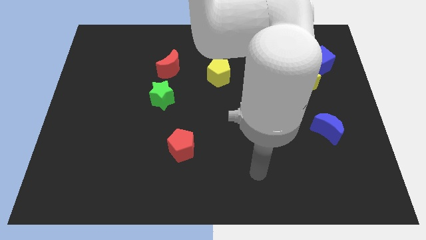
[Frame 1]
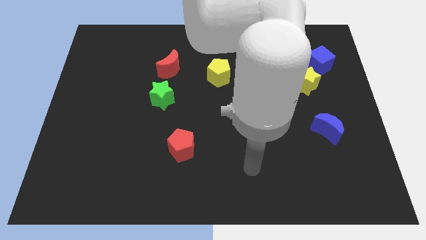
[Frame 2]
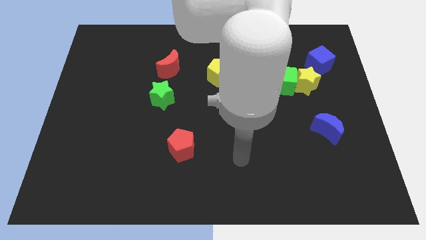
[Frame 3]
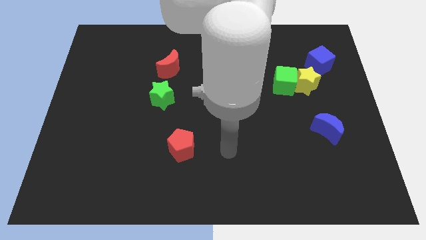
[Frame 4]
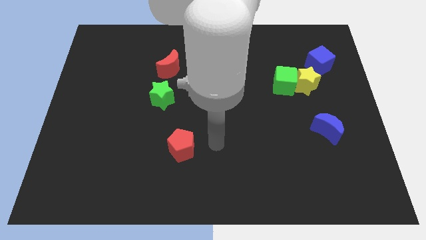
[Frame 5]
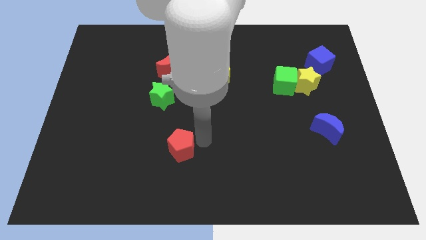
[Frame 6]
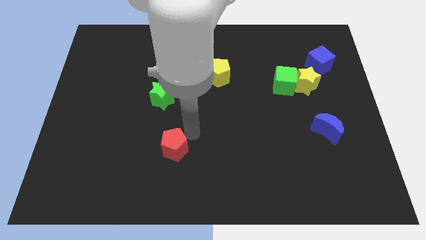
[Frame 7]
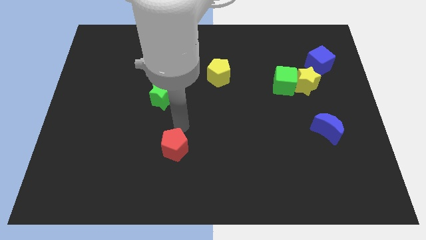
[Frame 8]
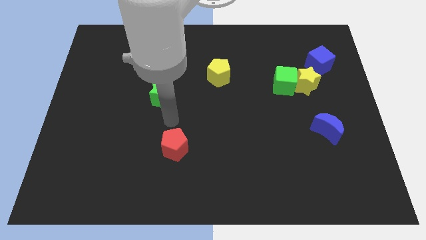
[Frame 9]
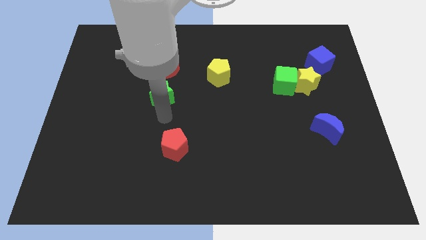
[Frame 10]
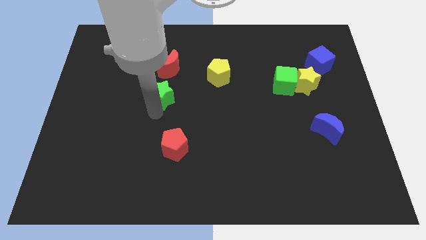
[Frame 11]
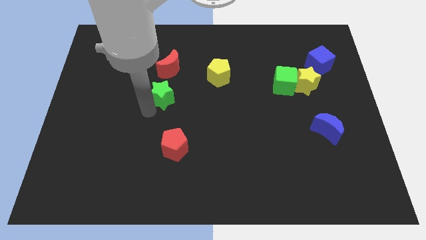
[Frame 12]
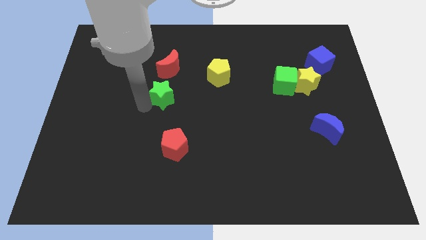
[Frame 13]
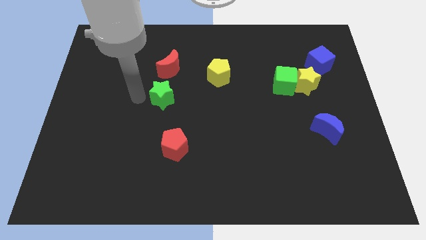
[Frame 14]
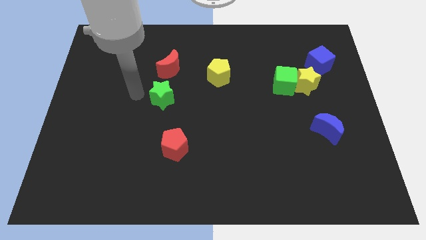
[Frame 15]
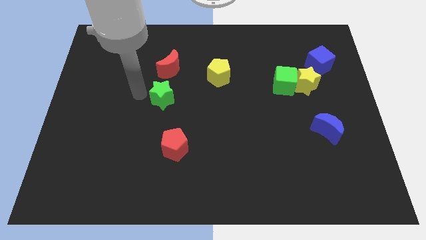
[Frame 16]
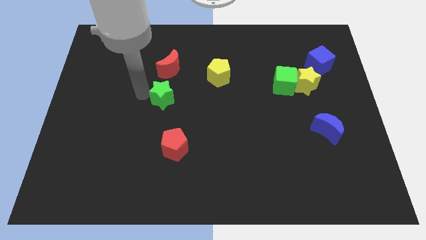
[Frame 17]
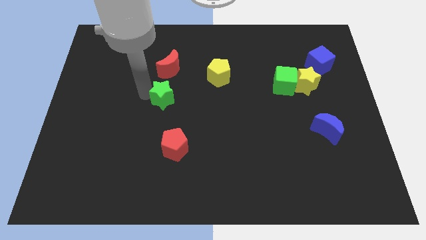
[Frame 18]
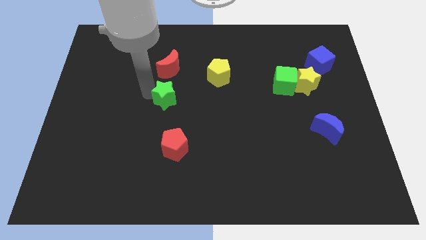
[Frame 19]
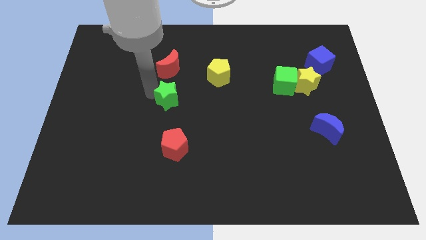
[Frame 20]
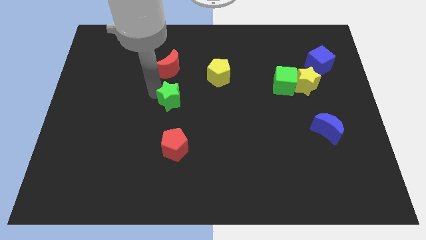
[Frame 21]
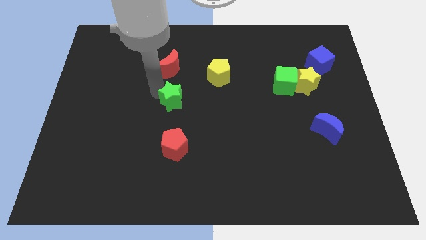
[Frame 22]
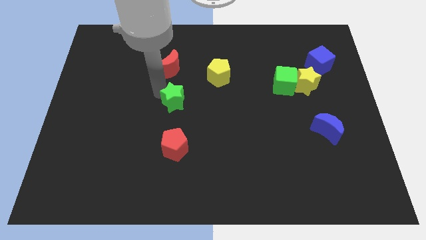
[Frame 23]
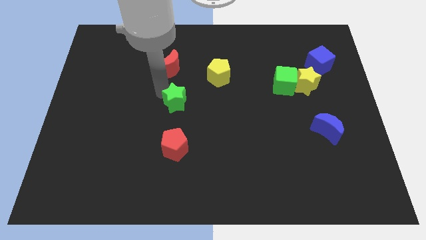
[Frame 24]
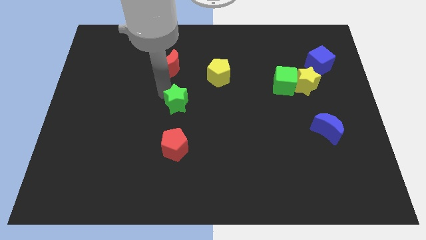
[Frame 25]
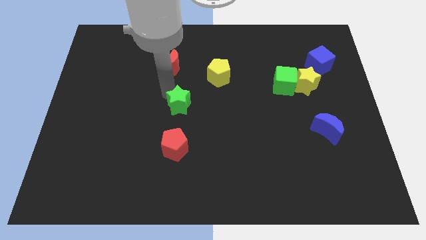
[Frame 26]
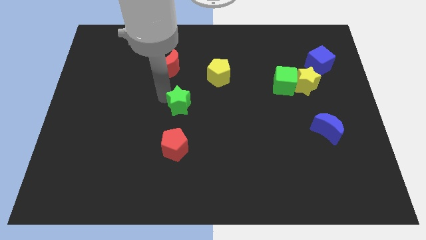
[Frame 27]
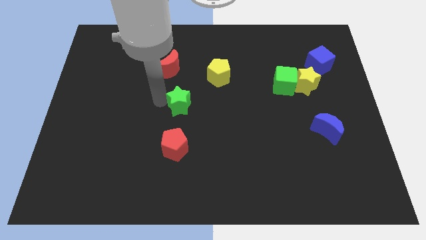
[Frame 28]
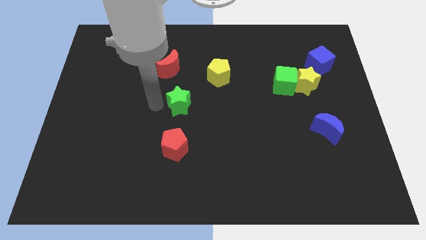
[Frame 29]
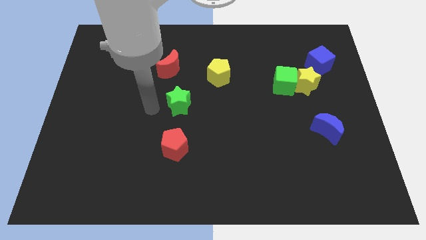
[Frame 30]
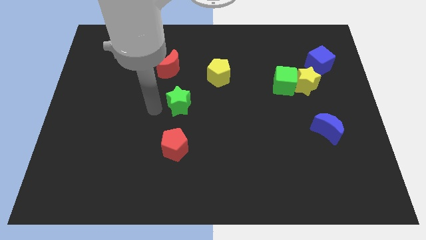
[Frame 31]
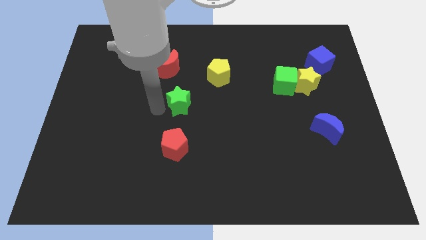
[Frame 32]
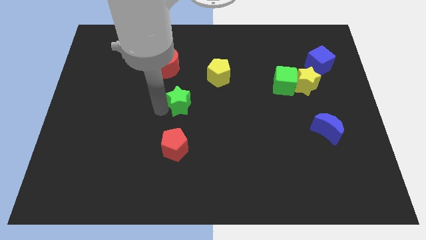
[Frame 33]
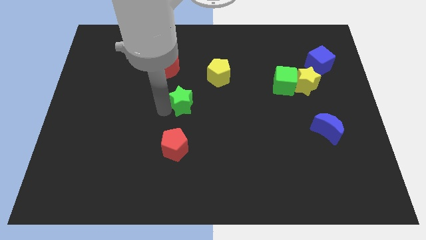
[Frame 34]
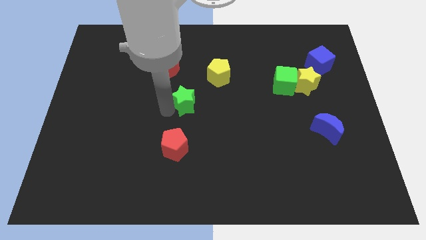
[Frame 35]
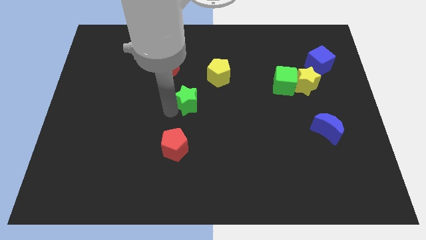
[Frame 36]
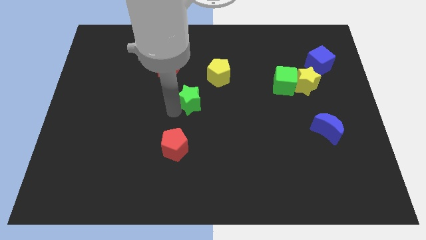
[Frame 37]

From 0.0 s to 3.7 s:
slightly move the green star to the right

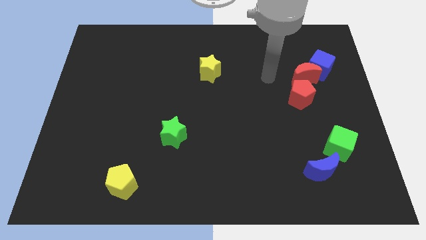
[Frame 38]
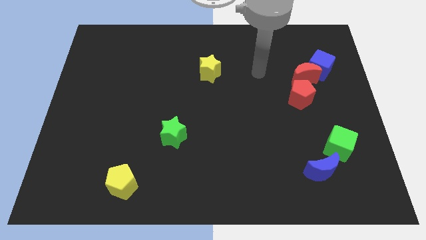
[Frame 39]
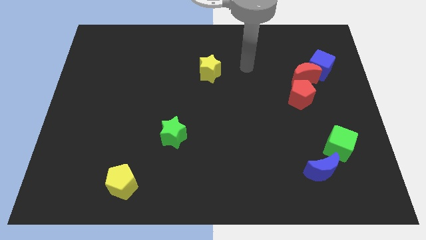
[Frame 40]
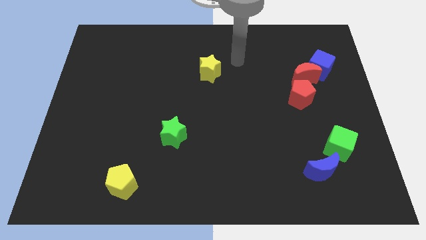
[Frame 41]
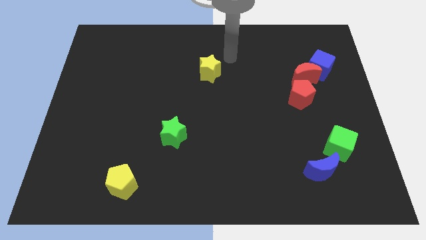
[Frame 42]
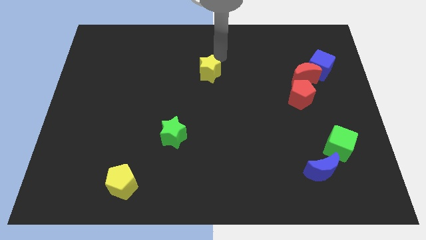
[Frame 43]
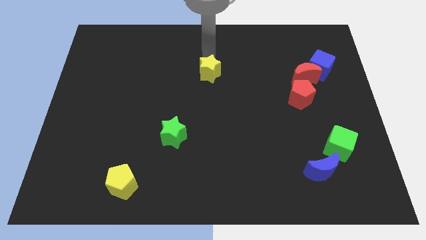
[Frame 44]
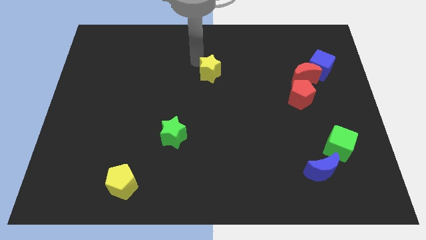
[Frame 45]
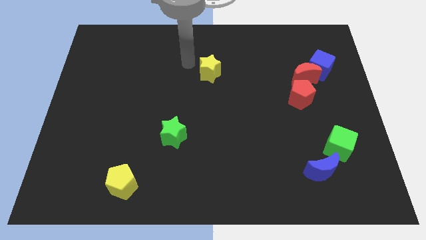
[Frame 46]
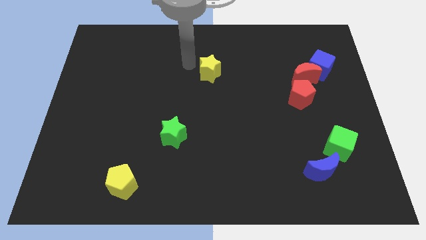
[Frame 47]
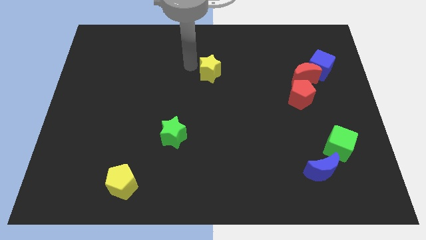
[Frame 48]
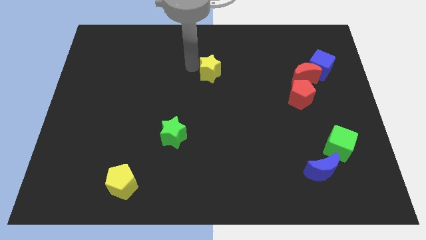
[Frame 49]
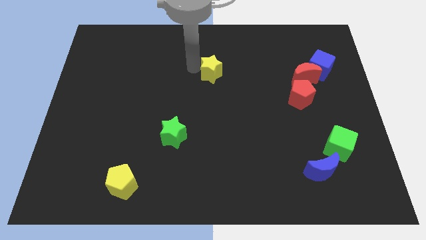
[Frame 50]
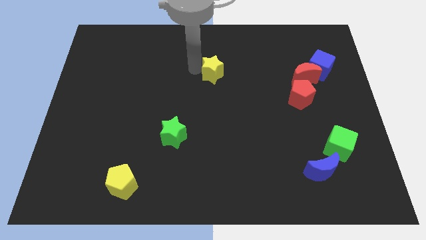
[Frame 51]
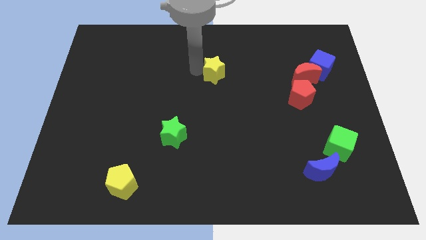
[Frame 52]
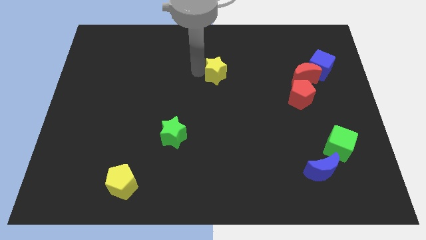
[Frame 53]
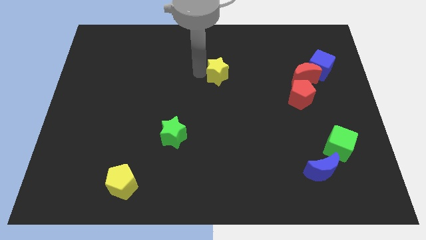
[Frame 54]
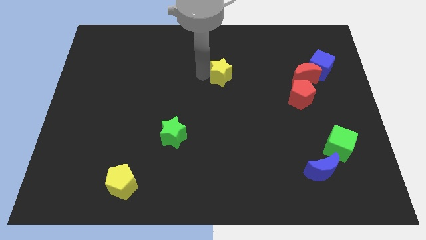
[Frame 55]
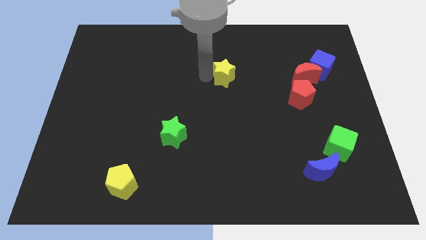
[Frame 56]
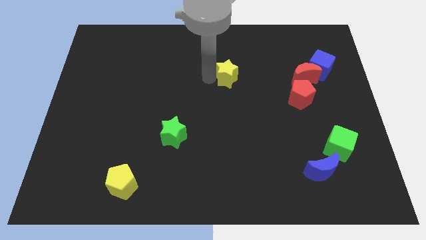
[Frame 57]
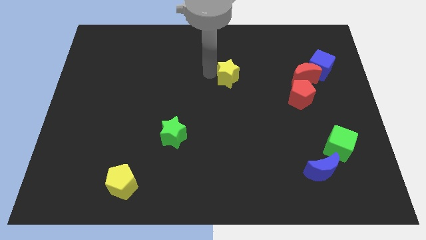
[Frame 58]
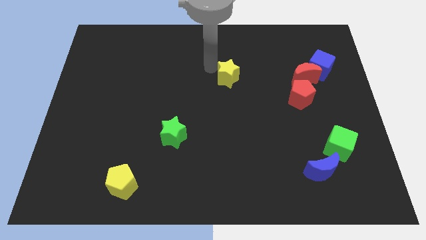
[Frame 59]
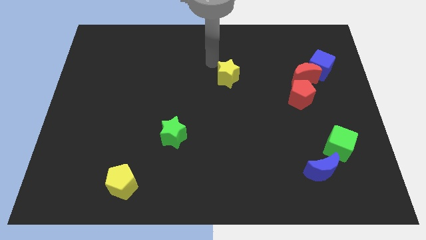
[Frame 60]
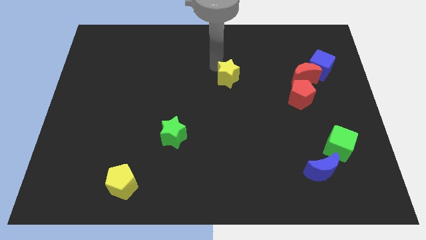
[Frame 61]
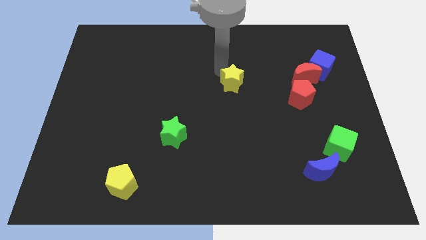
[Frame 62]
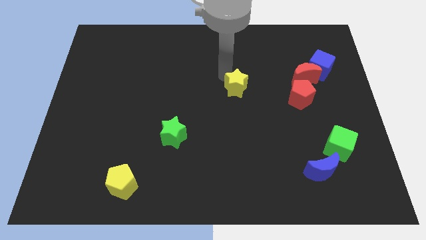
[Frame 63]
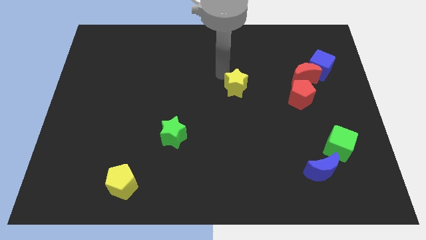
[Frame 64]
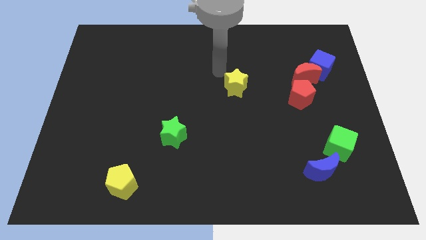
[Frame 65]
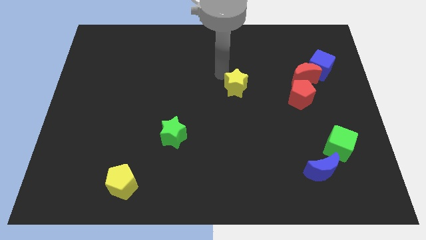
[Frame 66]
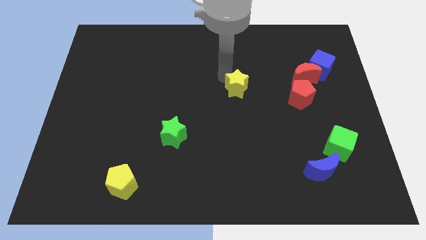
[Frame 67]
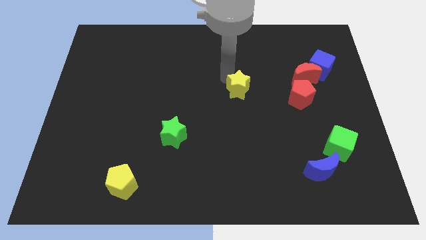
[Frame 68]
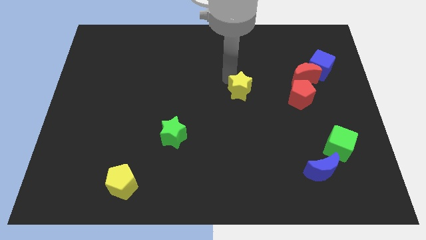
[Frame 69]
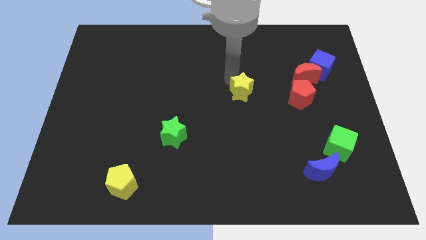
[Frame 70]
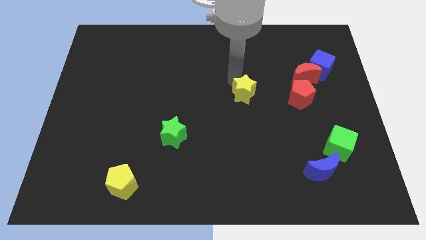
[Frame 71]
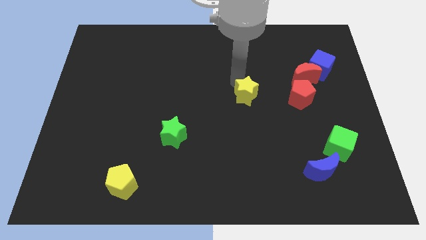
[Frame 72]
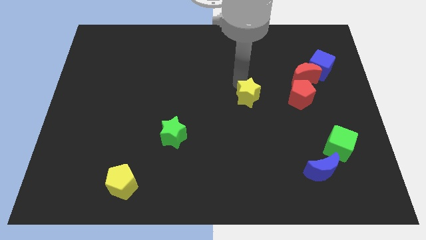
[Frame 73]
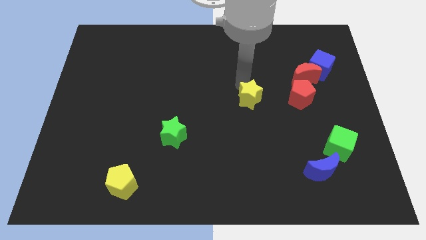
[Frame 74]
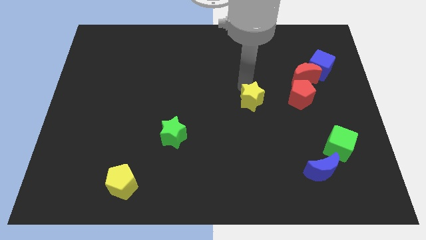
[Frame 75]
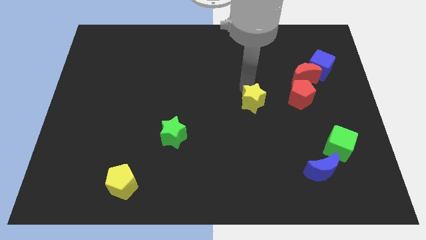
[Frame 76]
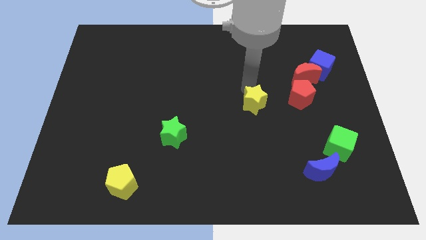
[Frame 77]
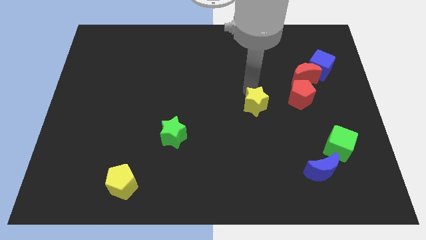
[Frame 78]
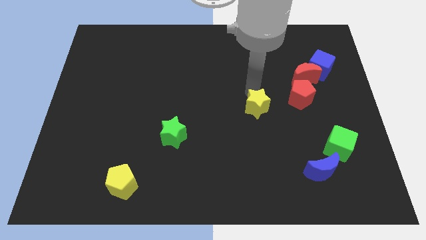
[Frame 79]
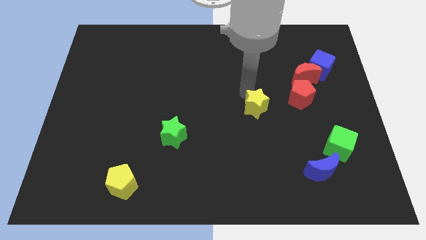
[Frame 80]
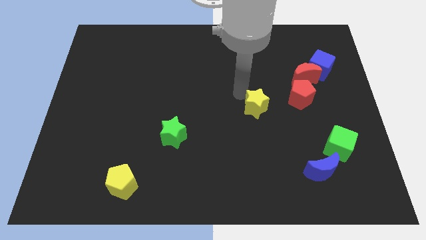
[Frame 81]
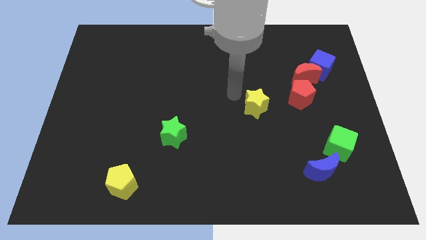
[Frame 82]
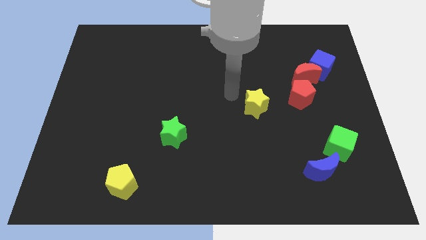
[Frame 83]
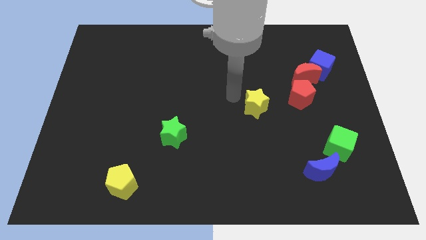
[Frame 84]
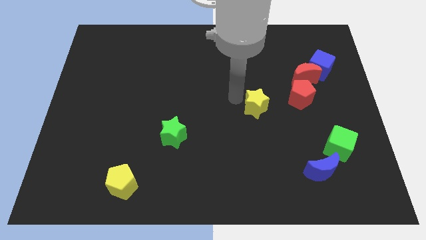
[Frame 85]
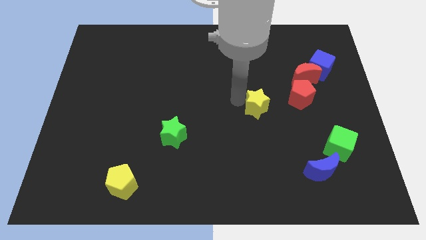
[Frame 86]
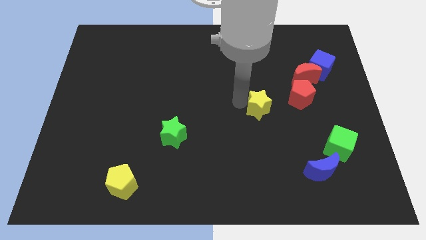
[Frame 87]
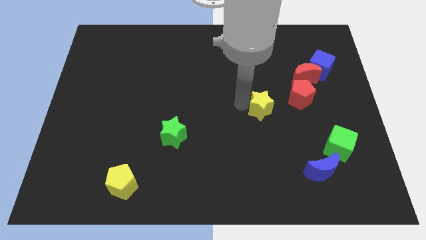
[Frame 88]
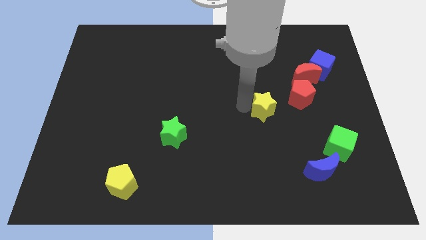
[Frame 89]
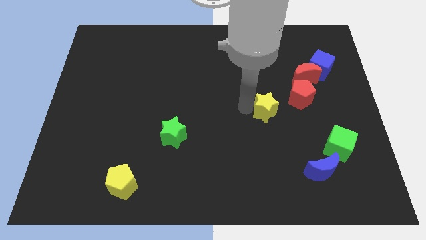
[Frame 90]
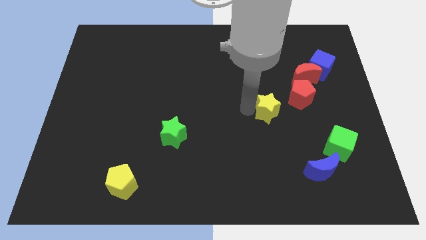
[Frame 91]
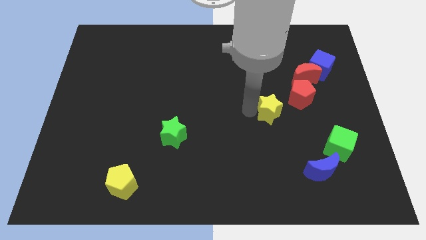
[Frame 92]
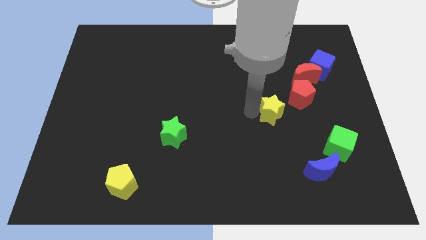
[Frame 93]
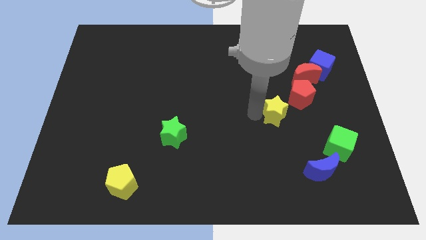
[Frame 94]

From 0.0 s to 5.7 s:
move the yellow star diagonally downwards and right
